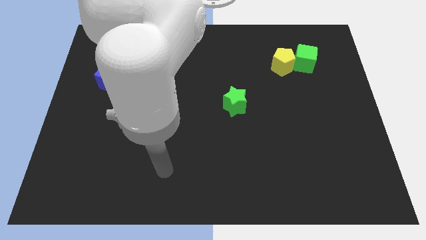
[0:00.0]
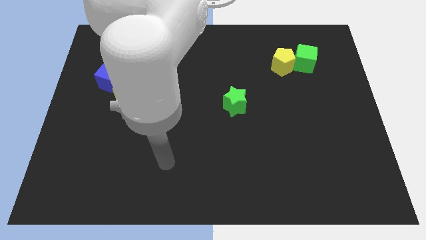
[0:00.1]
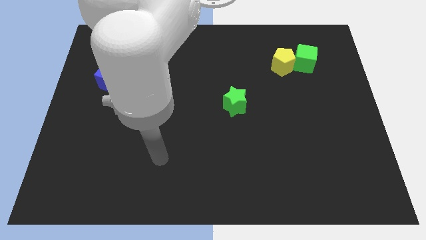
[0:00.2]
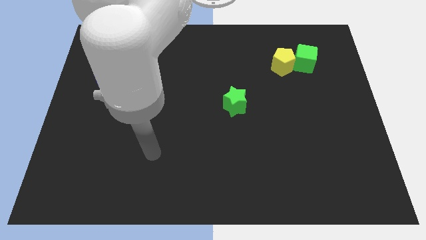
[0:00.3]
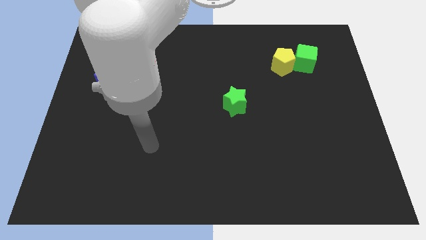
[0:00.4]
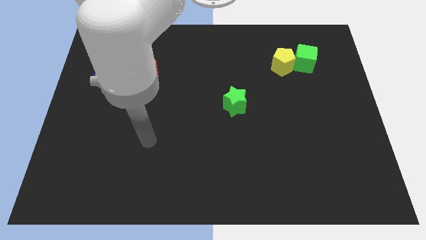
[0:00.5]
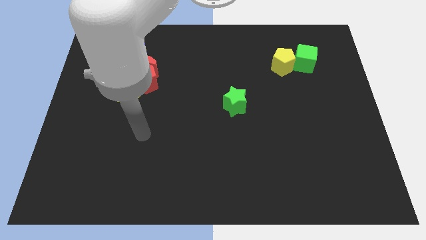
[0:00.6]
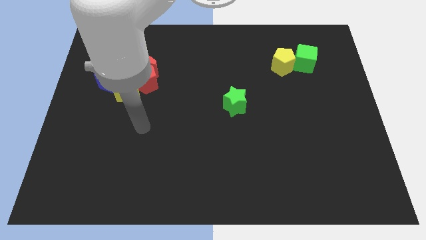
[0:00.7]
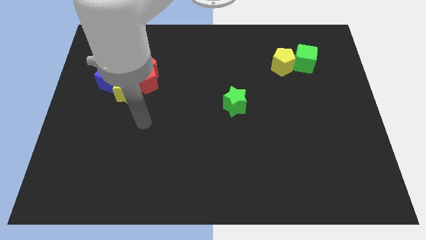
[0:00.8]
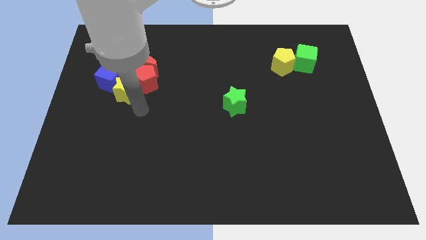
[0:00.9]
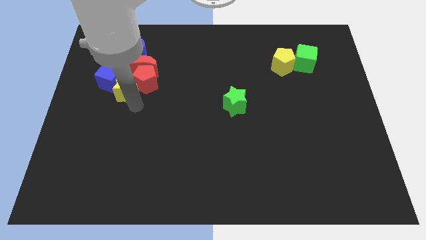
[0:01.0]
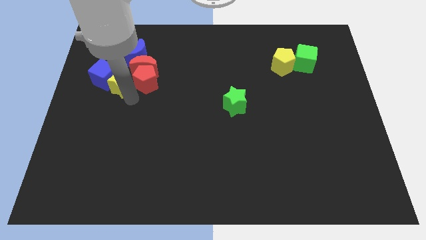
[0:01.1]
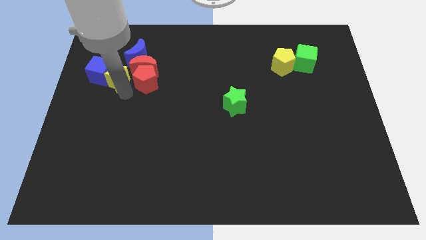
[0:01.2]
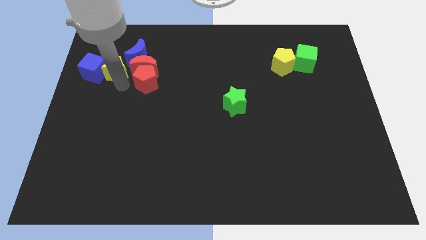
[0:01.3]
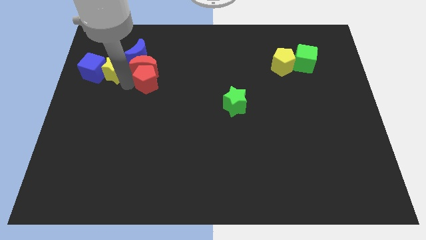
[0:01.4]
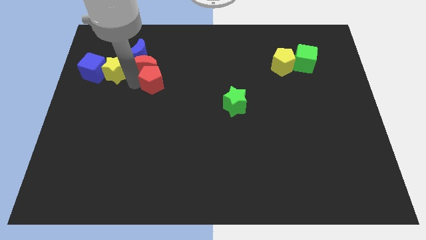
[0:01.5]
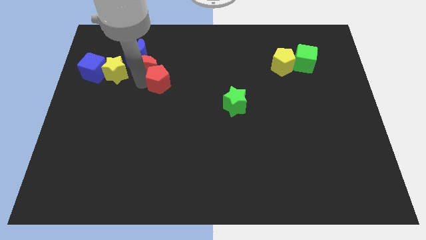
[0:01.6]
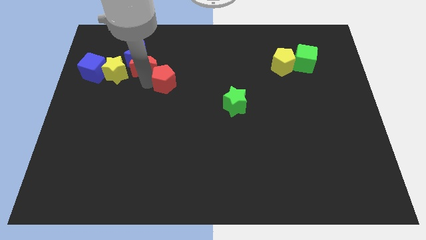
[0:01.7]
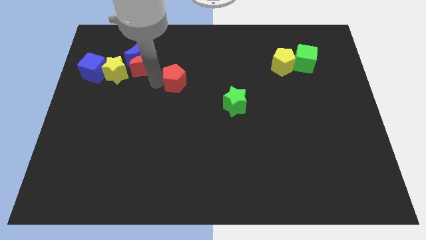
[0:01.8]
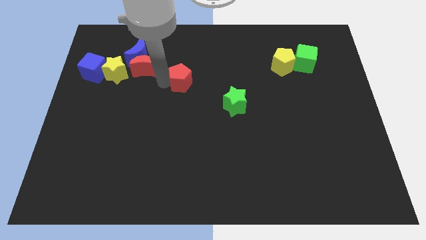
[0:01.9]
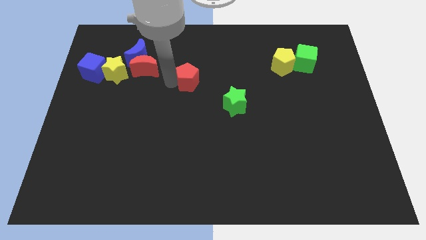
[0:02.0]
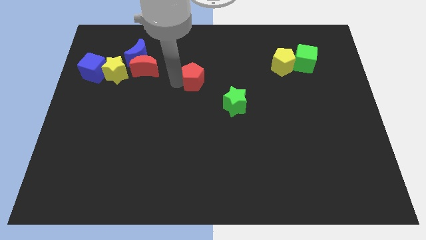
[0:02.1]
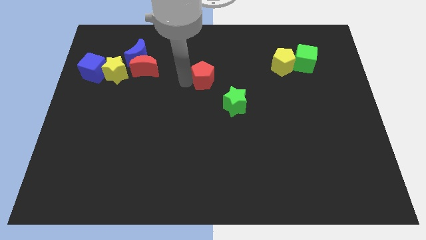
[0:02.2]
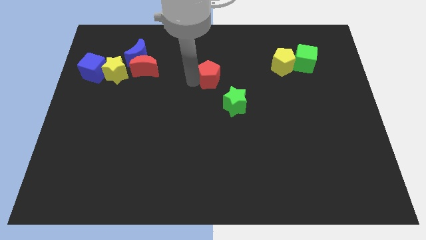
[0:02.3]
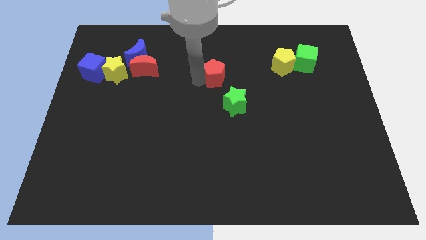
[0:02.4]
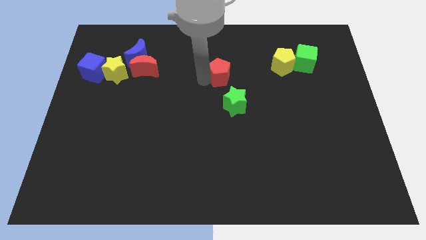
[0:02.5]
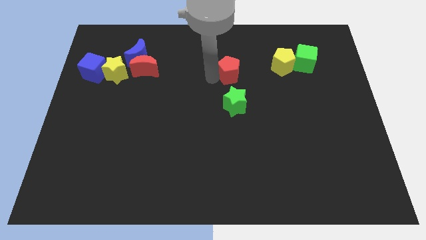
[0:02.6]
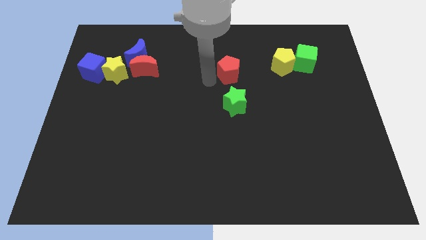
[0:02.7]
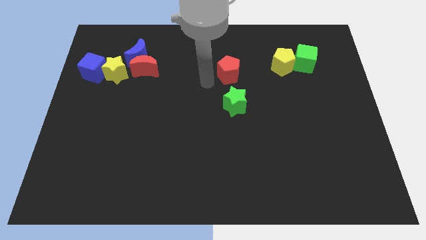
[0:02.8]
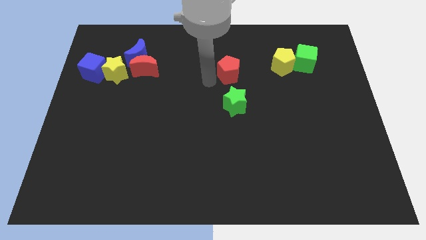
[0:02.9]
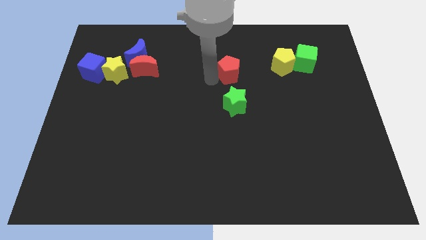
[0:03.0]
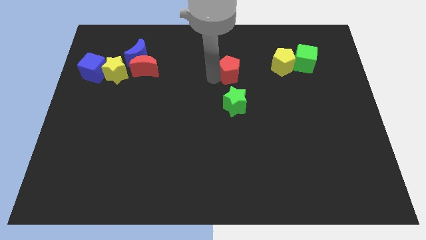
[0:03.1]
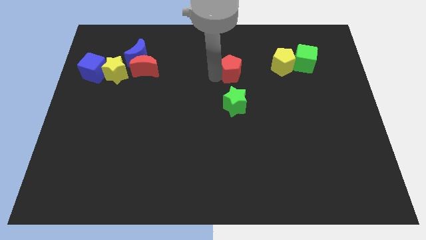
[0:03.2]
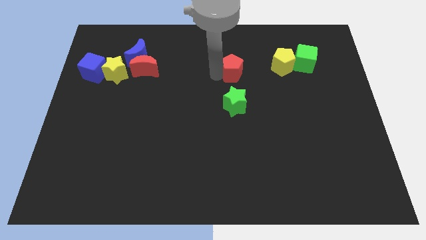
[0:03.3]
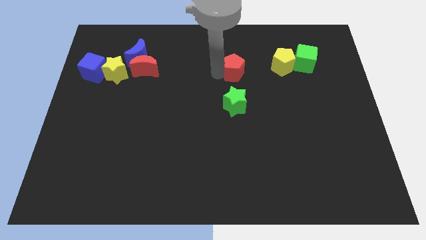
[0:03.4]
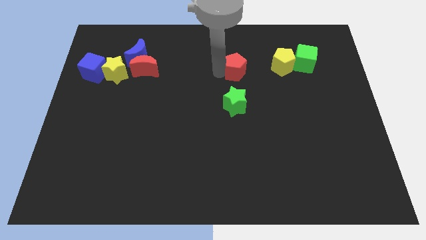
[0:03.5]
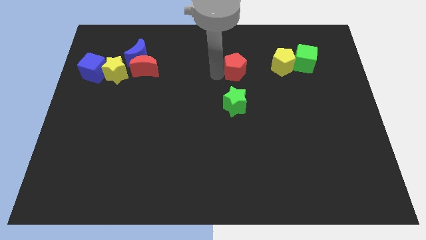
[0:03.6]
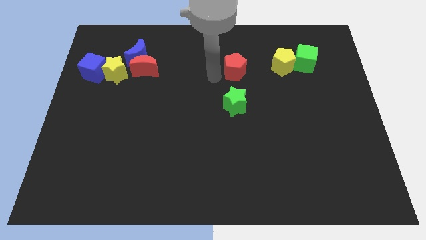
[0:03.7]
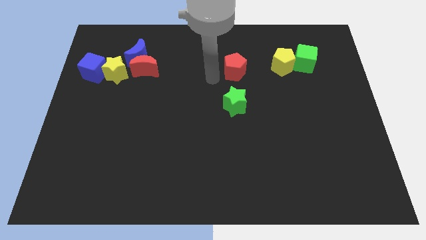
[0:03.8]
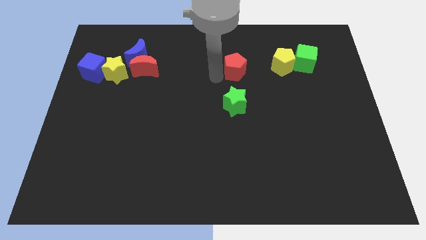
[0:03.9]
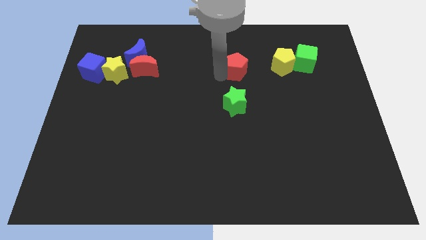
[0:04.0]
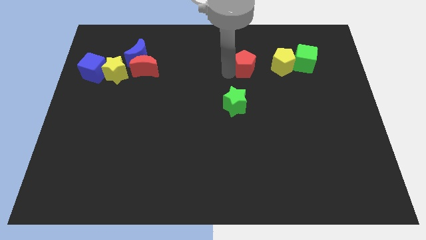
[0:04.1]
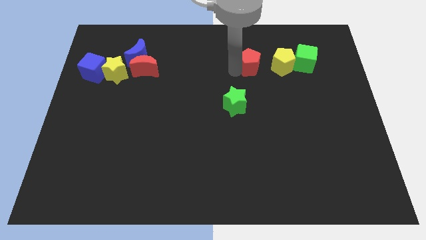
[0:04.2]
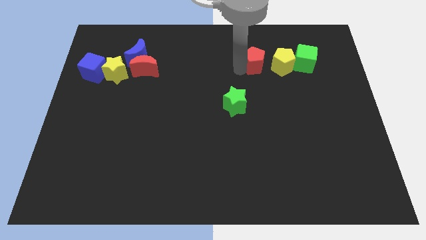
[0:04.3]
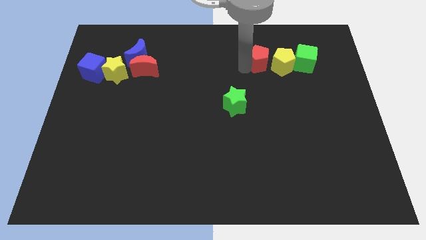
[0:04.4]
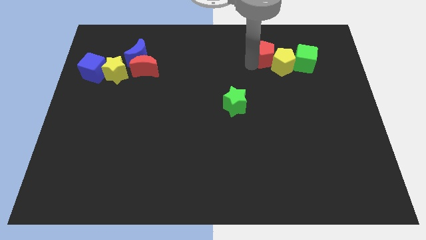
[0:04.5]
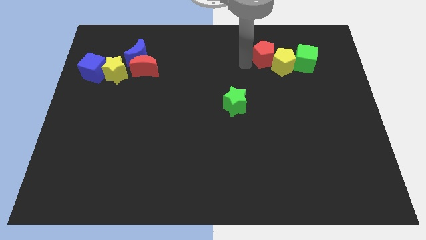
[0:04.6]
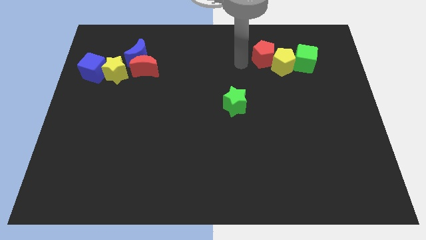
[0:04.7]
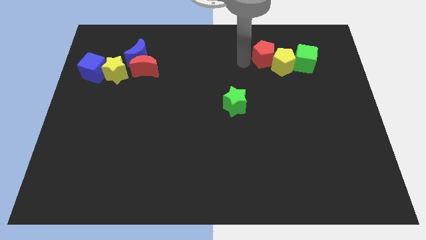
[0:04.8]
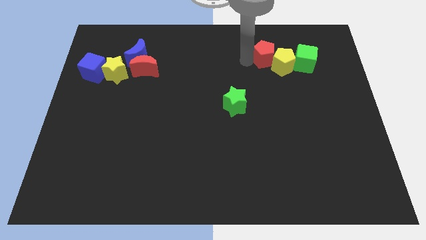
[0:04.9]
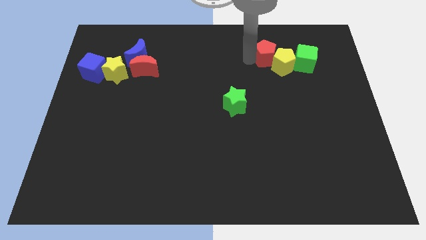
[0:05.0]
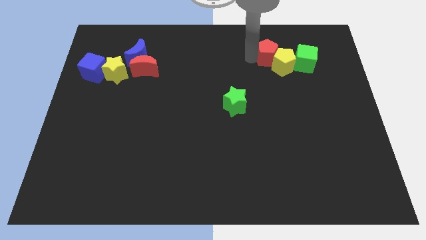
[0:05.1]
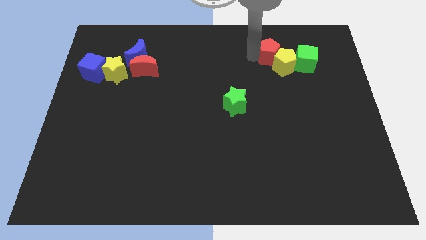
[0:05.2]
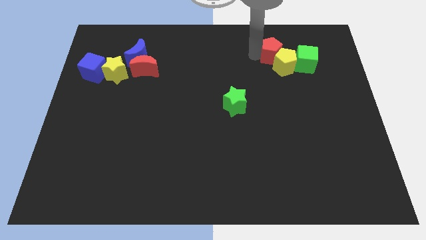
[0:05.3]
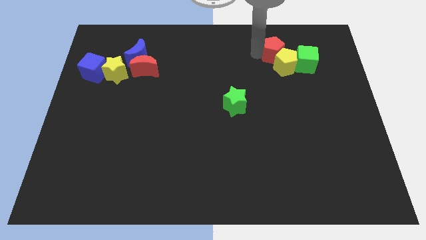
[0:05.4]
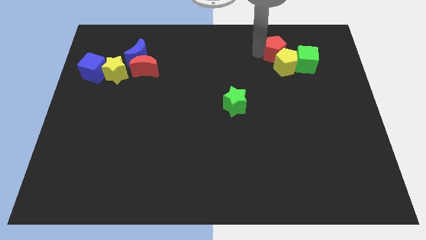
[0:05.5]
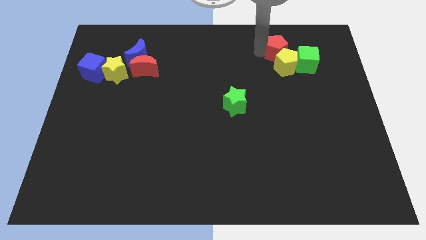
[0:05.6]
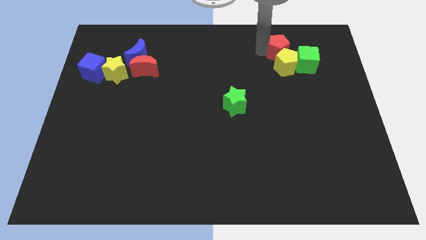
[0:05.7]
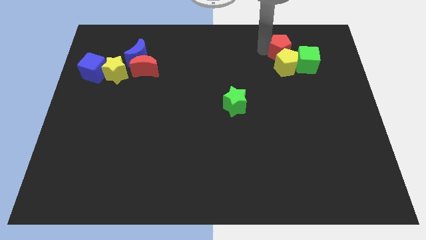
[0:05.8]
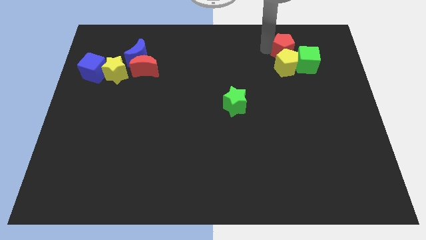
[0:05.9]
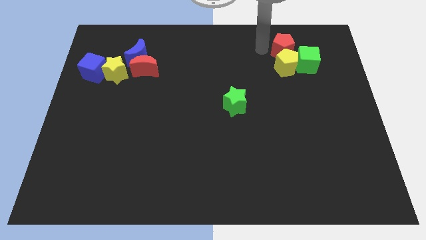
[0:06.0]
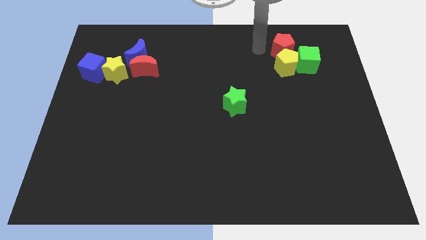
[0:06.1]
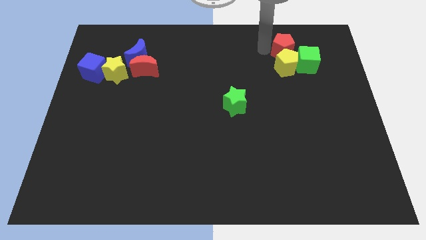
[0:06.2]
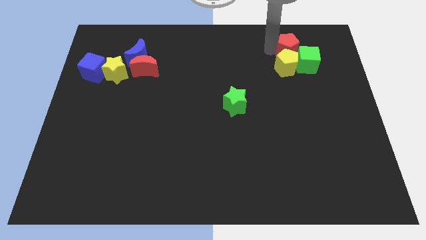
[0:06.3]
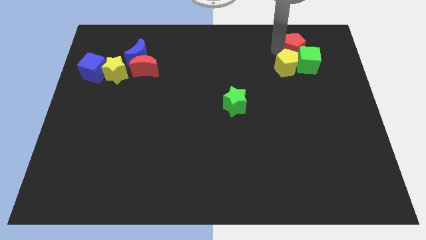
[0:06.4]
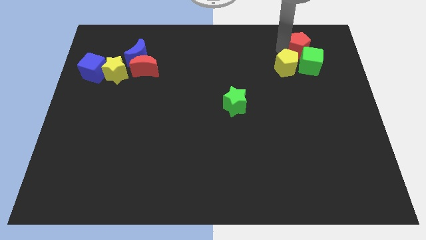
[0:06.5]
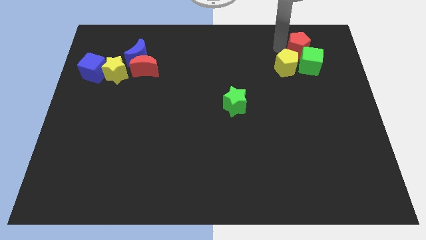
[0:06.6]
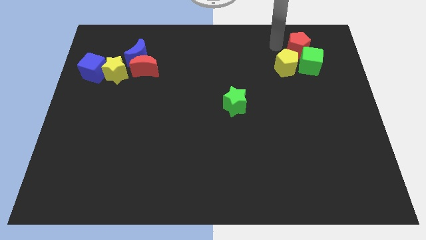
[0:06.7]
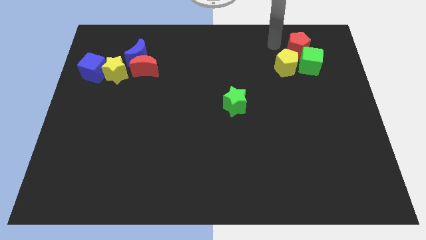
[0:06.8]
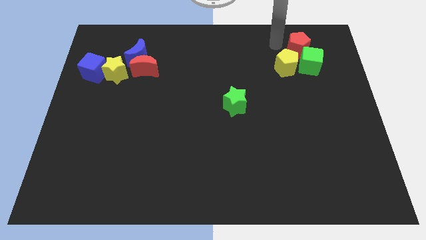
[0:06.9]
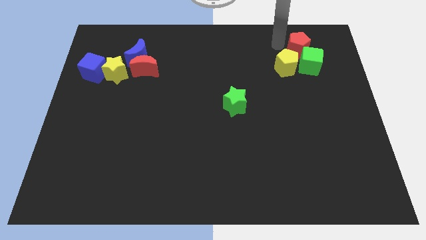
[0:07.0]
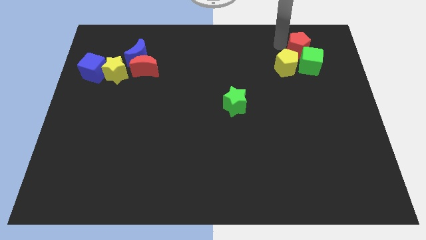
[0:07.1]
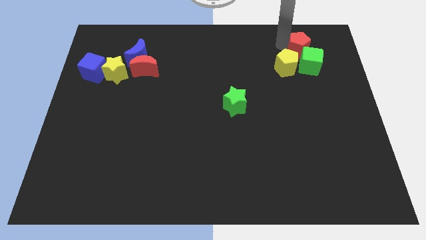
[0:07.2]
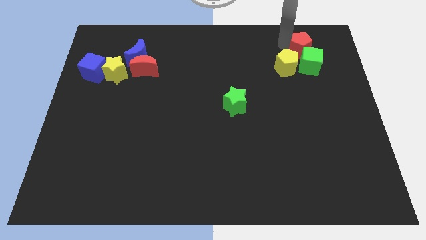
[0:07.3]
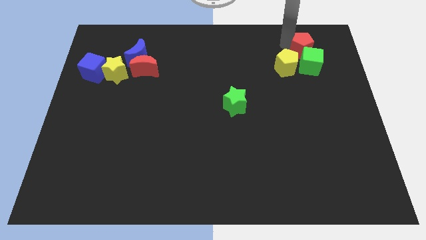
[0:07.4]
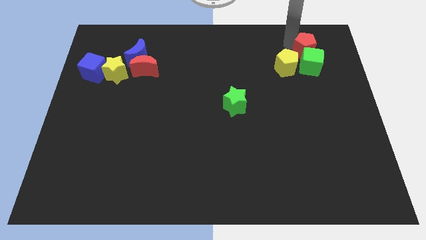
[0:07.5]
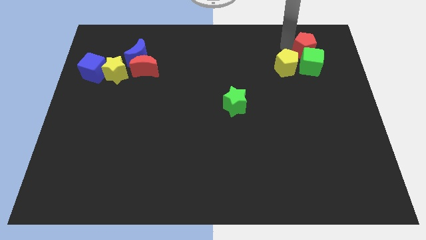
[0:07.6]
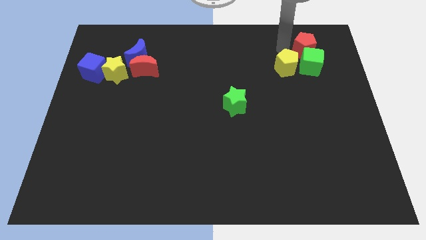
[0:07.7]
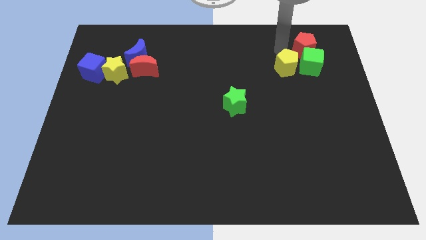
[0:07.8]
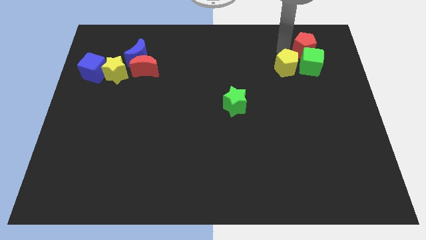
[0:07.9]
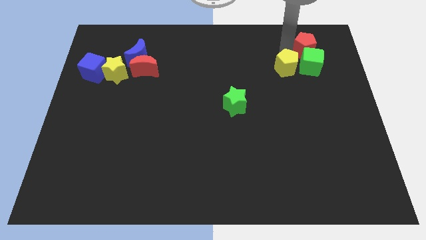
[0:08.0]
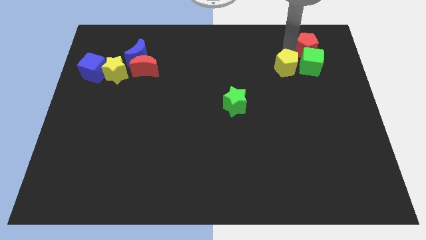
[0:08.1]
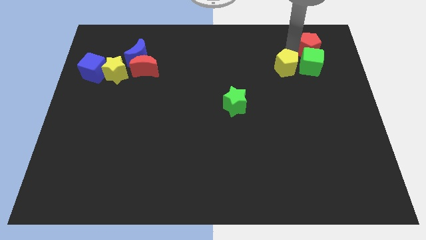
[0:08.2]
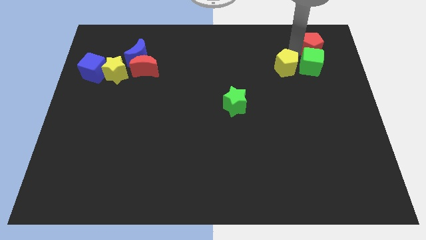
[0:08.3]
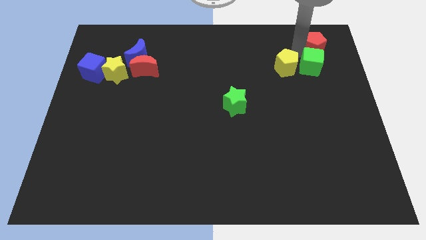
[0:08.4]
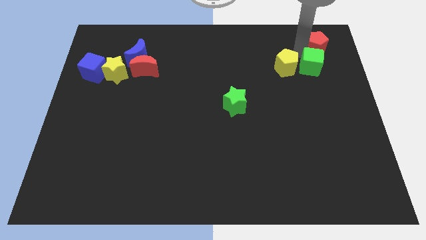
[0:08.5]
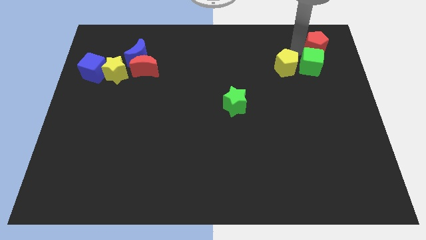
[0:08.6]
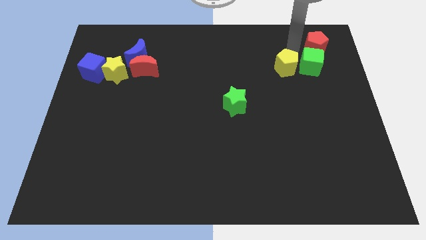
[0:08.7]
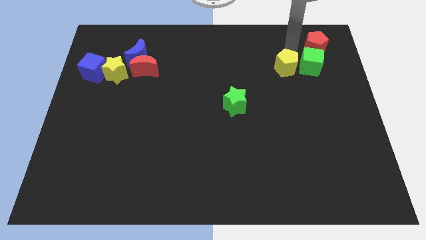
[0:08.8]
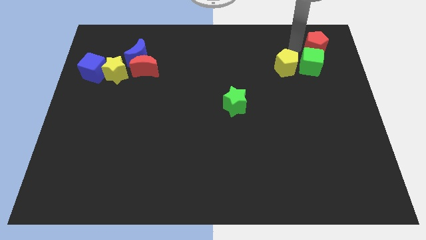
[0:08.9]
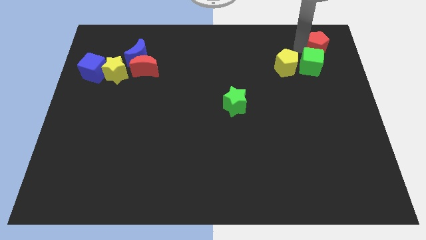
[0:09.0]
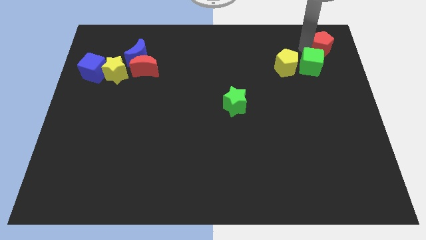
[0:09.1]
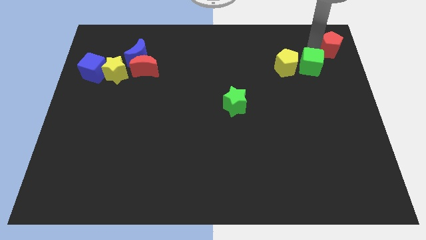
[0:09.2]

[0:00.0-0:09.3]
push the red pentagon to the top right corner
